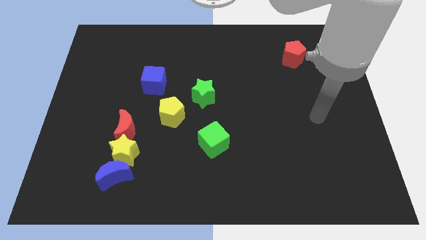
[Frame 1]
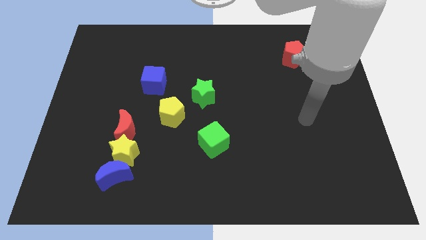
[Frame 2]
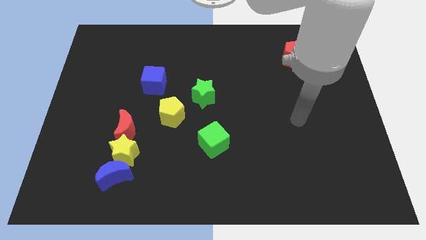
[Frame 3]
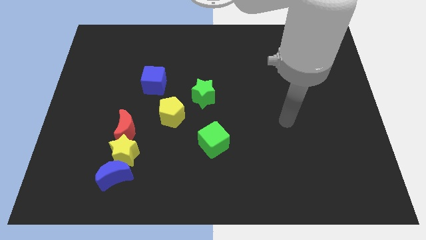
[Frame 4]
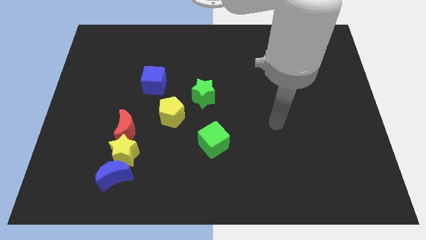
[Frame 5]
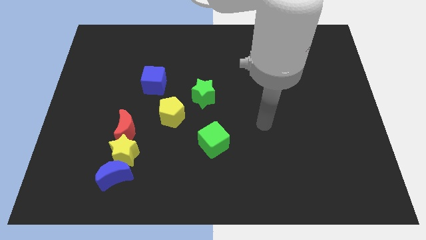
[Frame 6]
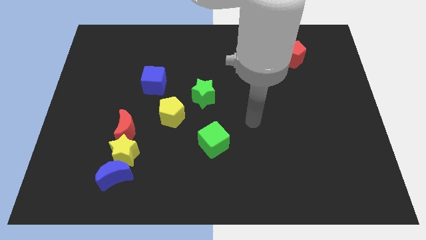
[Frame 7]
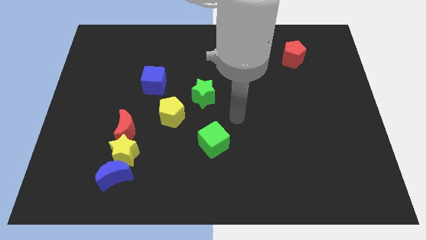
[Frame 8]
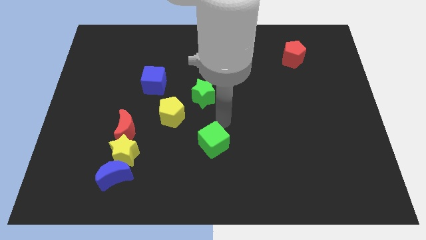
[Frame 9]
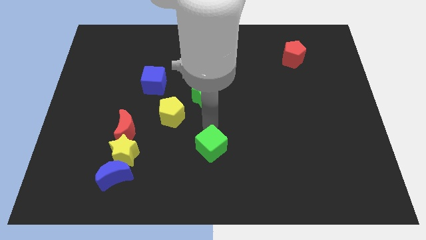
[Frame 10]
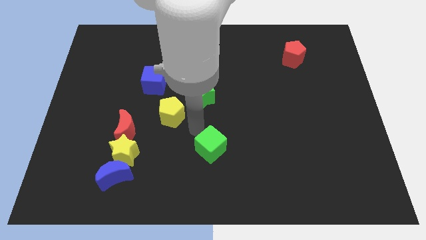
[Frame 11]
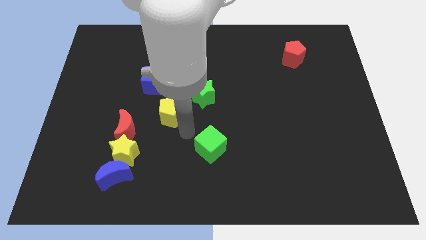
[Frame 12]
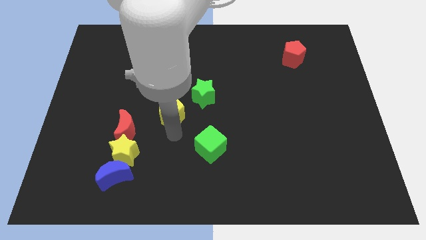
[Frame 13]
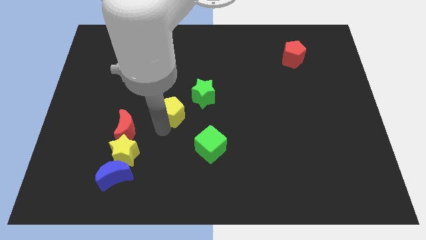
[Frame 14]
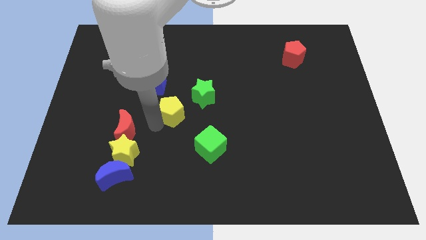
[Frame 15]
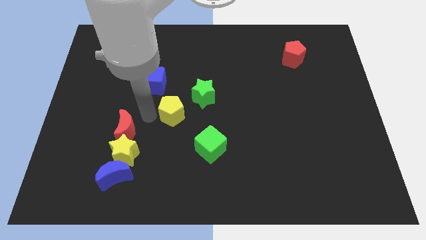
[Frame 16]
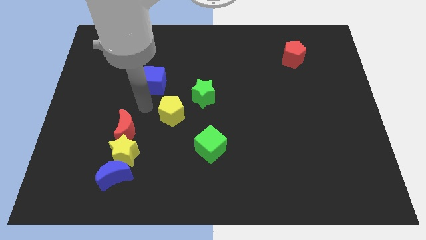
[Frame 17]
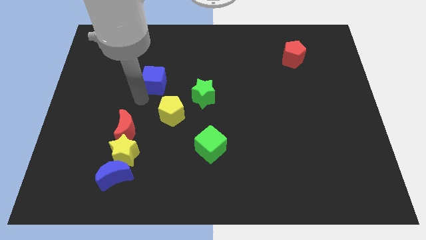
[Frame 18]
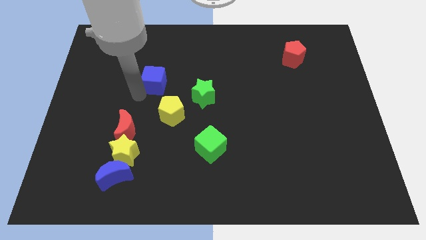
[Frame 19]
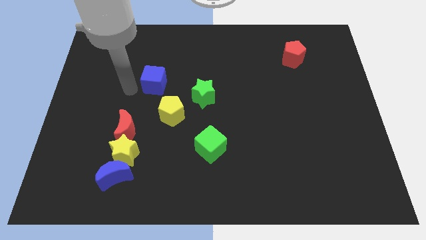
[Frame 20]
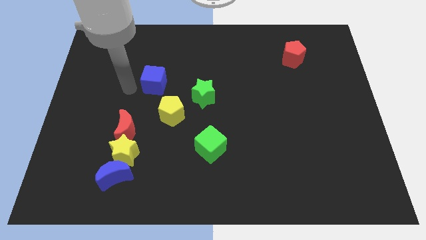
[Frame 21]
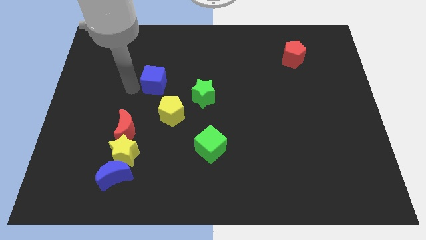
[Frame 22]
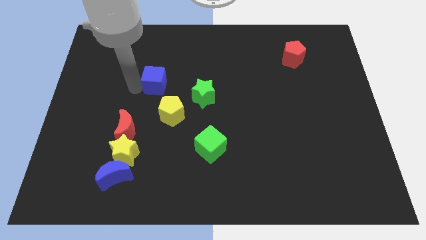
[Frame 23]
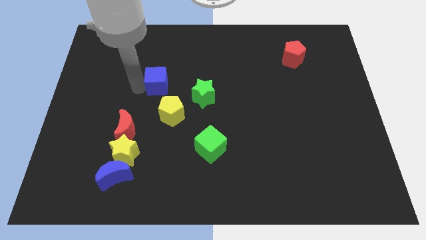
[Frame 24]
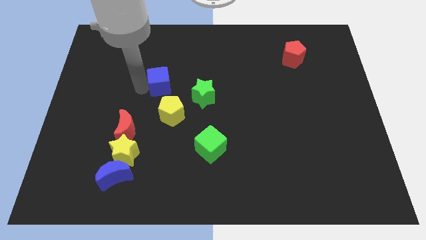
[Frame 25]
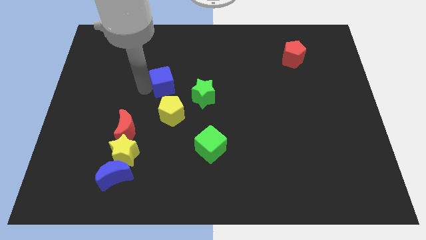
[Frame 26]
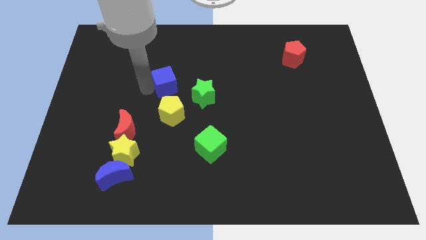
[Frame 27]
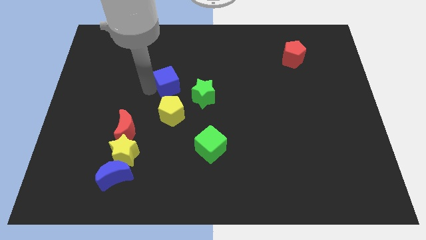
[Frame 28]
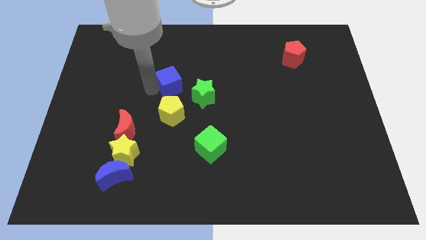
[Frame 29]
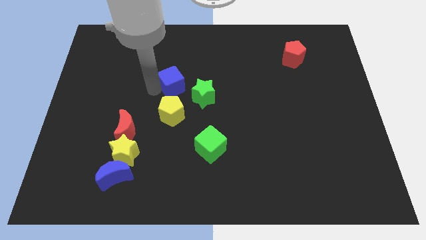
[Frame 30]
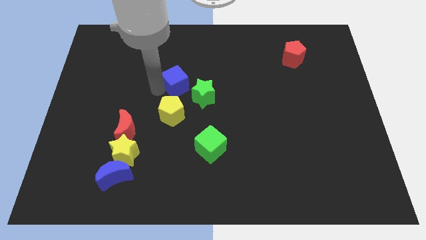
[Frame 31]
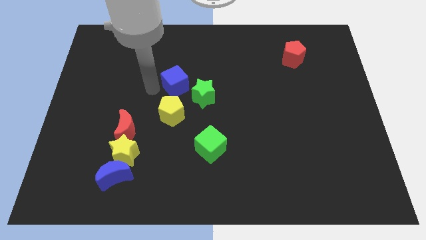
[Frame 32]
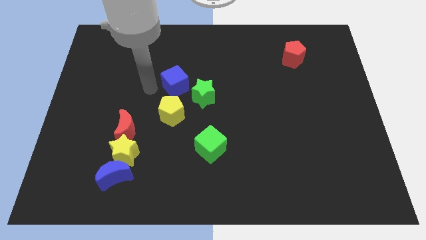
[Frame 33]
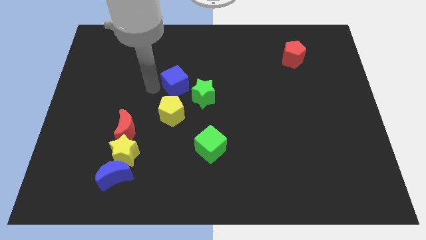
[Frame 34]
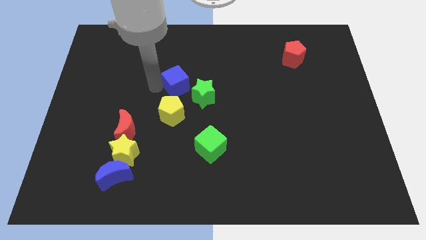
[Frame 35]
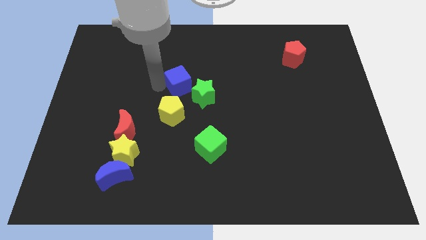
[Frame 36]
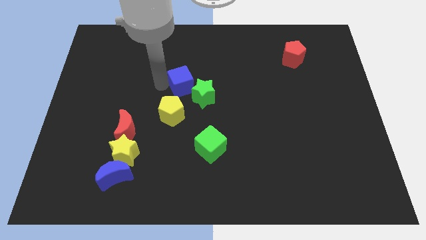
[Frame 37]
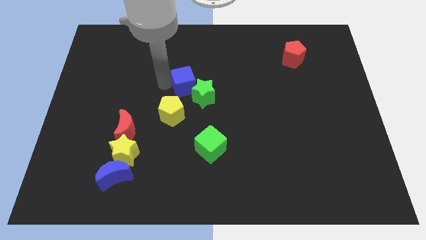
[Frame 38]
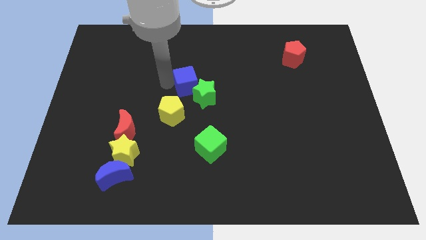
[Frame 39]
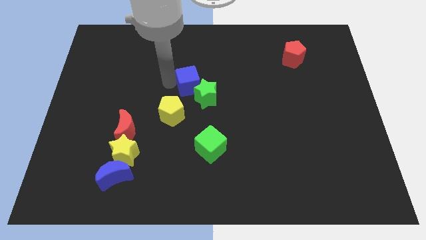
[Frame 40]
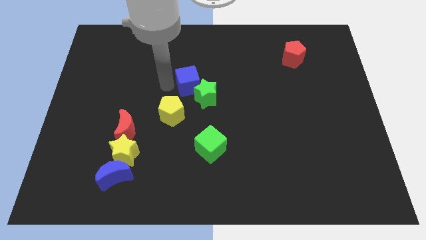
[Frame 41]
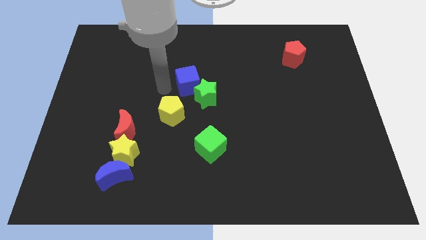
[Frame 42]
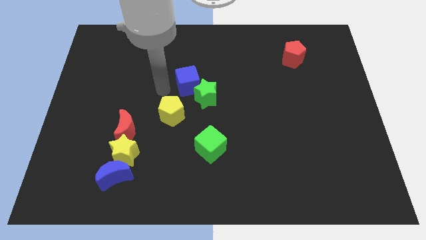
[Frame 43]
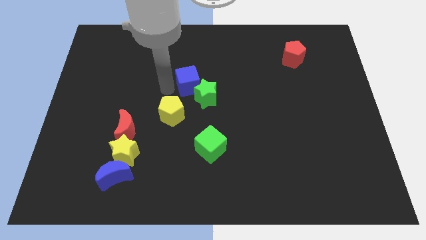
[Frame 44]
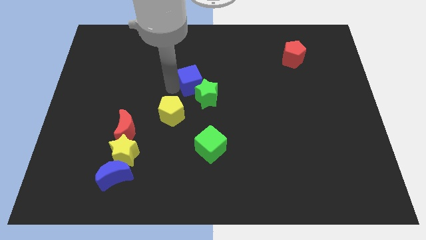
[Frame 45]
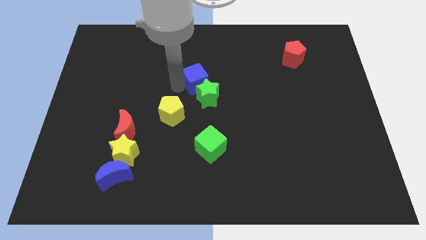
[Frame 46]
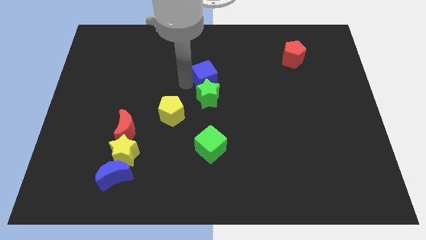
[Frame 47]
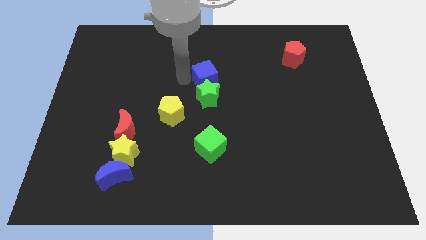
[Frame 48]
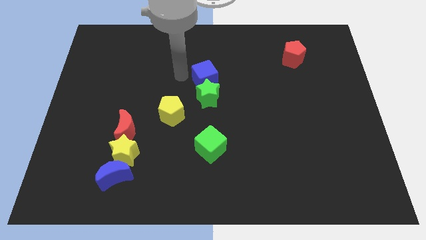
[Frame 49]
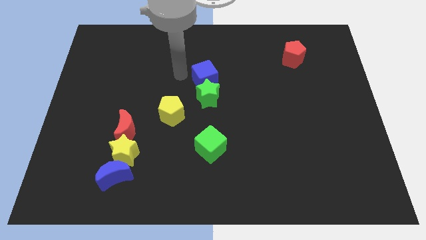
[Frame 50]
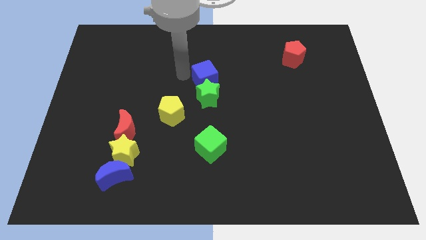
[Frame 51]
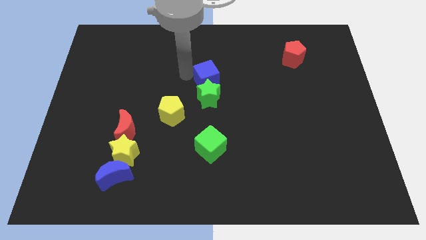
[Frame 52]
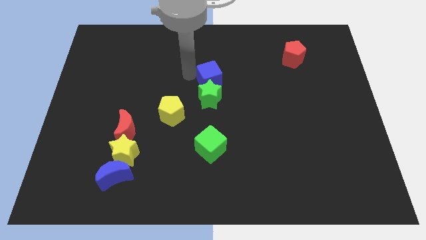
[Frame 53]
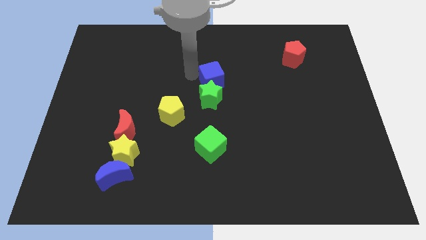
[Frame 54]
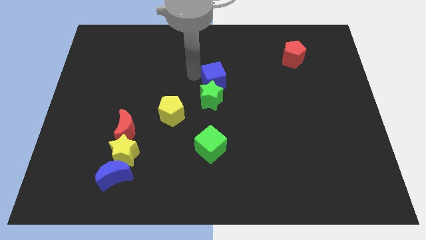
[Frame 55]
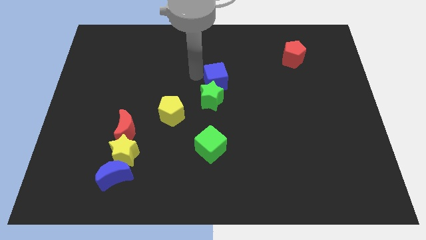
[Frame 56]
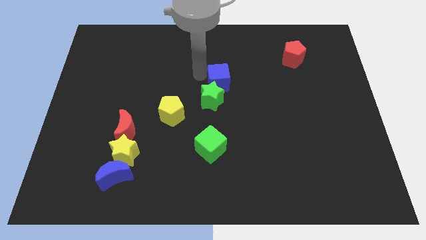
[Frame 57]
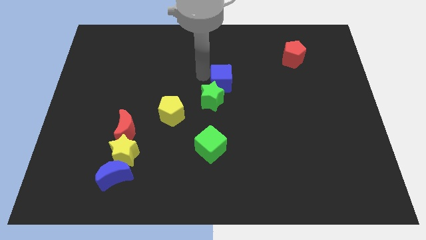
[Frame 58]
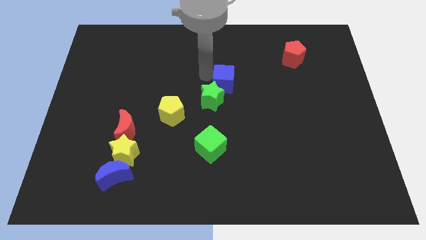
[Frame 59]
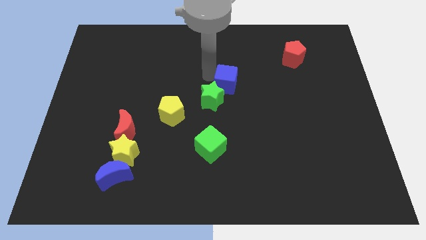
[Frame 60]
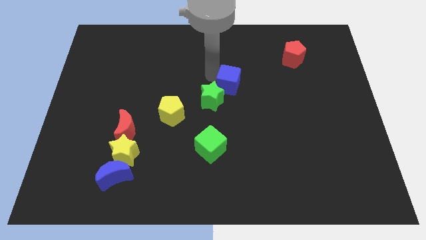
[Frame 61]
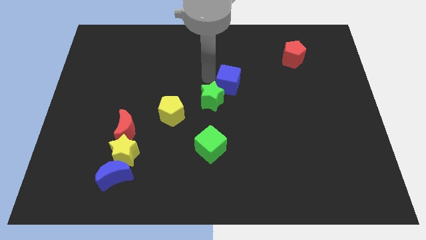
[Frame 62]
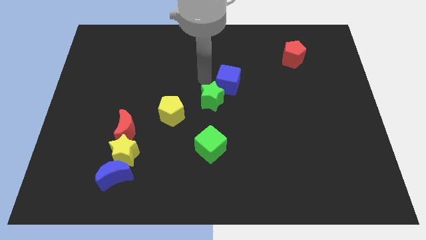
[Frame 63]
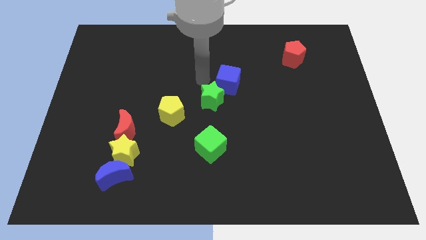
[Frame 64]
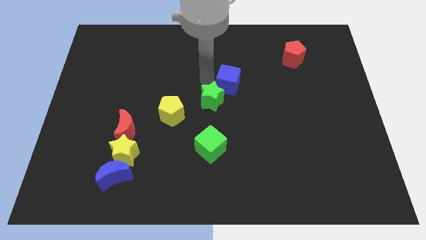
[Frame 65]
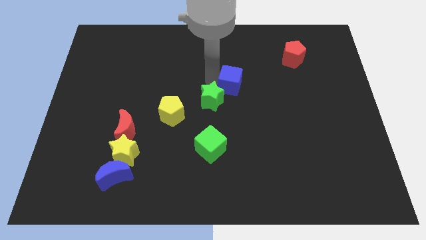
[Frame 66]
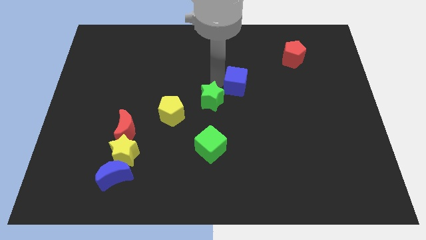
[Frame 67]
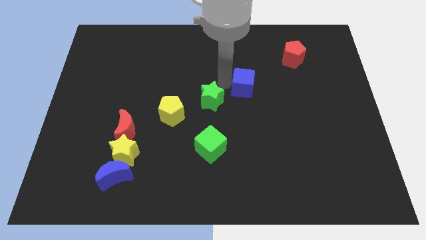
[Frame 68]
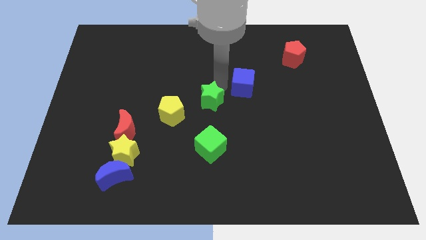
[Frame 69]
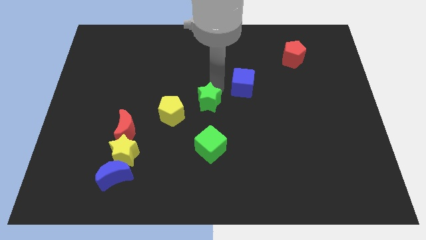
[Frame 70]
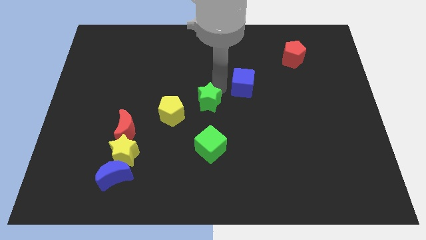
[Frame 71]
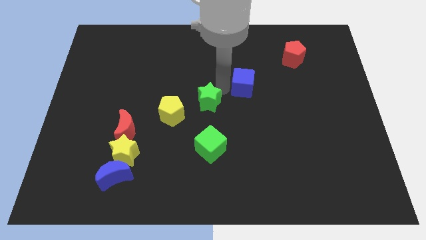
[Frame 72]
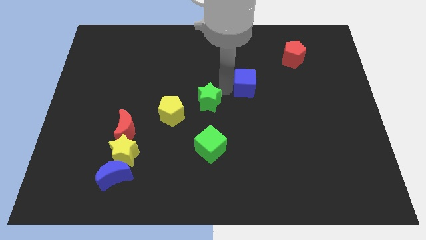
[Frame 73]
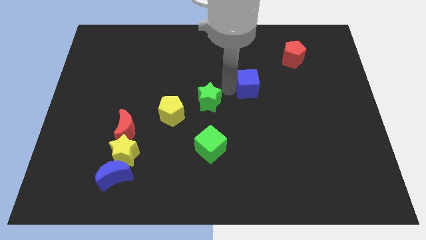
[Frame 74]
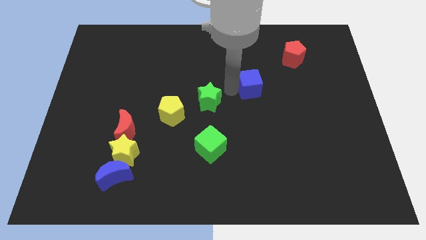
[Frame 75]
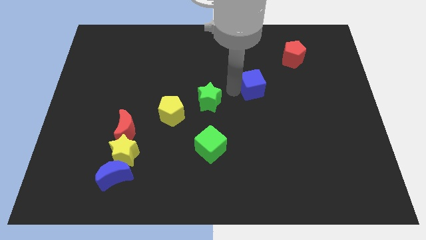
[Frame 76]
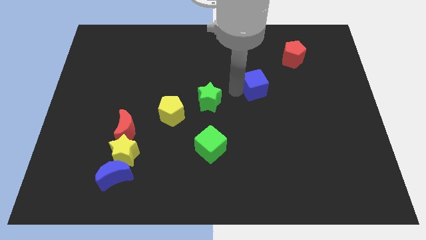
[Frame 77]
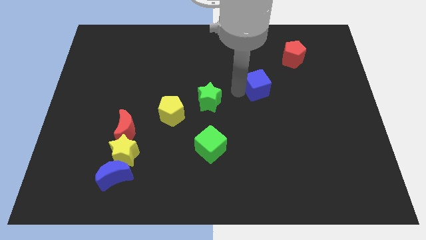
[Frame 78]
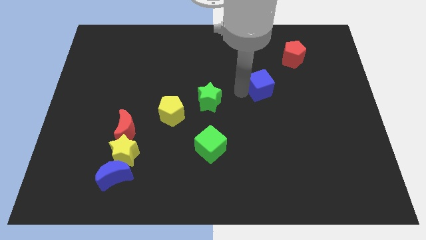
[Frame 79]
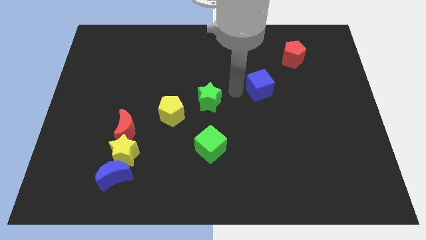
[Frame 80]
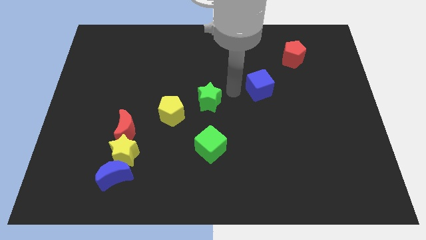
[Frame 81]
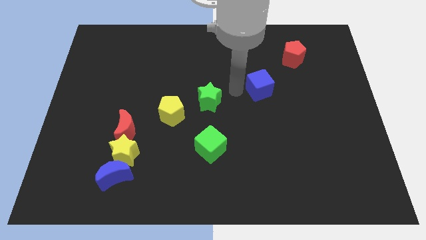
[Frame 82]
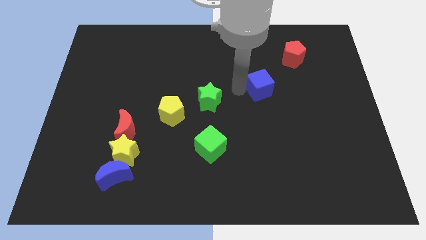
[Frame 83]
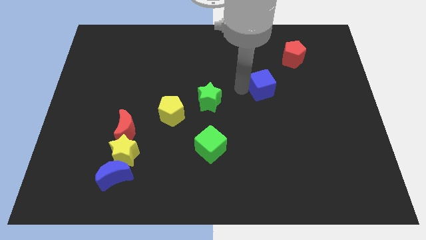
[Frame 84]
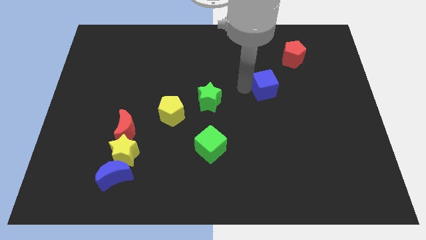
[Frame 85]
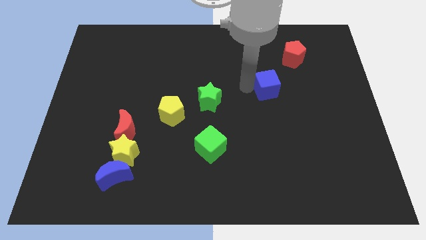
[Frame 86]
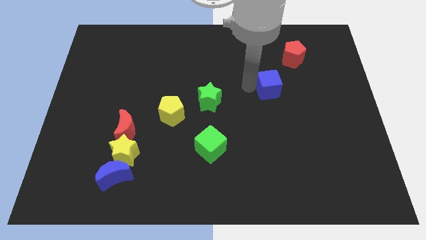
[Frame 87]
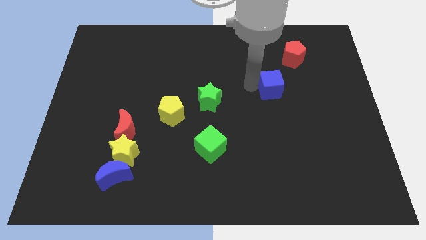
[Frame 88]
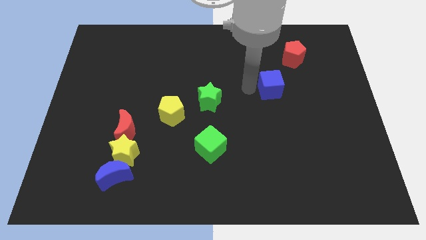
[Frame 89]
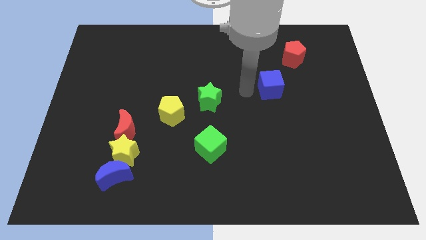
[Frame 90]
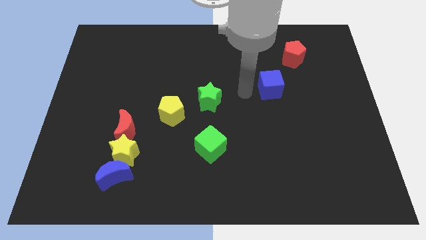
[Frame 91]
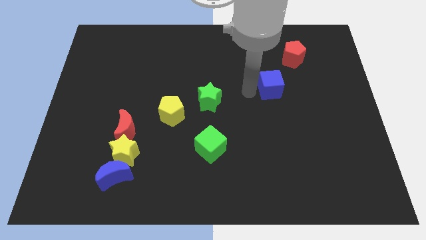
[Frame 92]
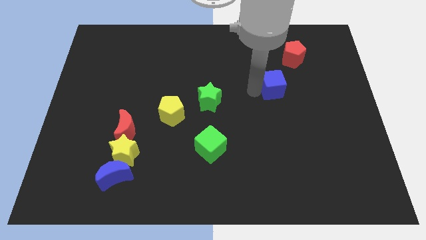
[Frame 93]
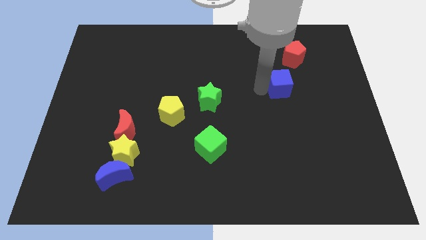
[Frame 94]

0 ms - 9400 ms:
put the blue cube to the bottom side of the red pentagon
